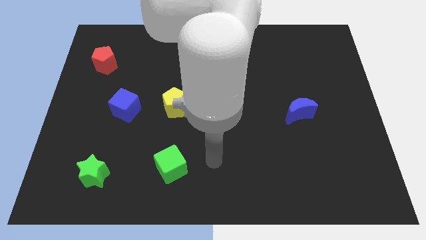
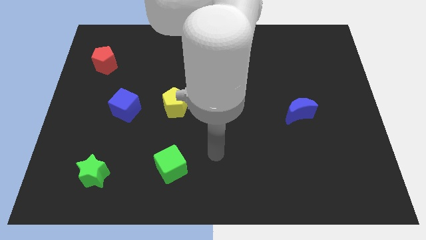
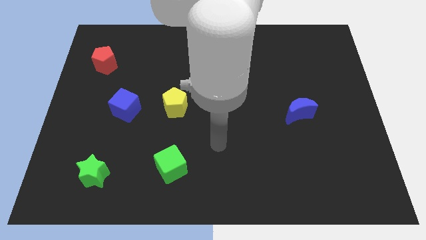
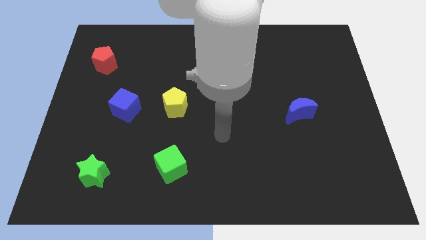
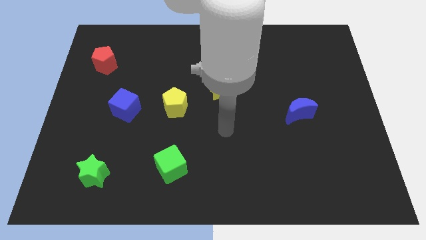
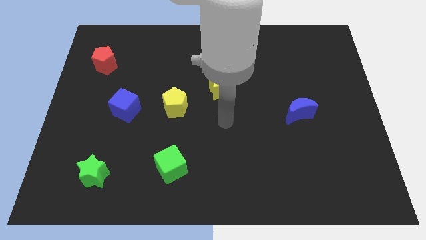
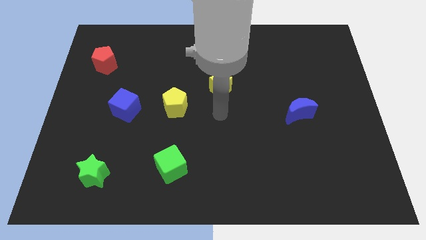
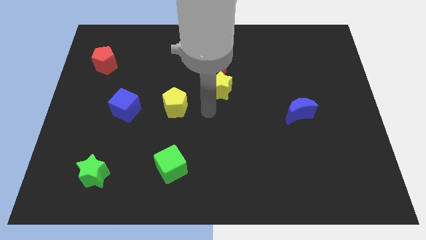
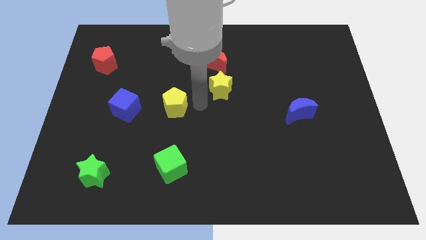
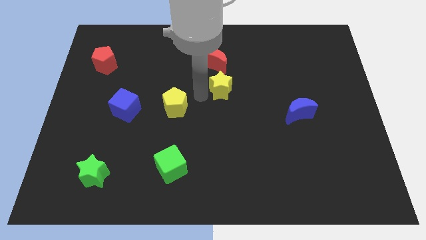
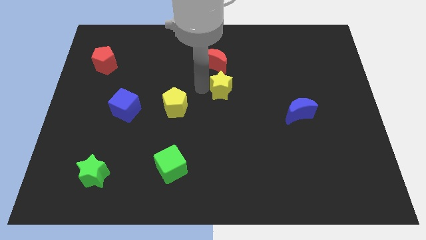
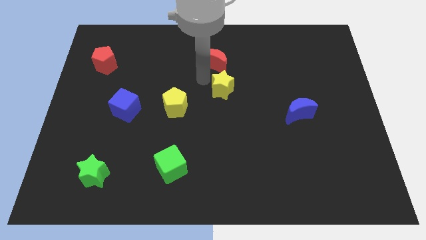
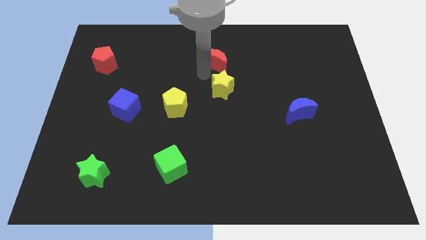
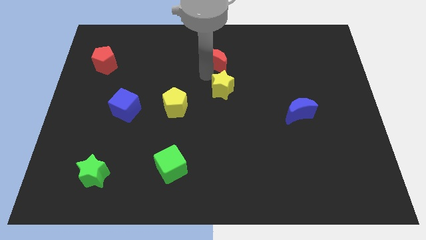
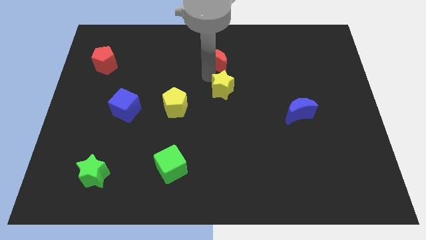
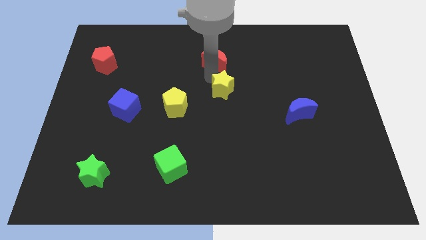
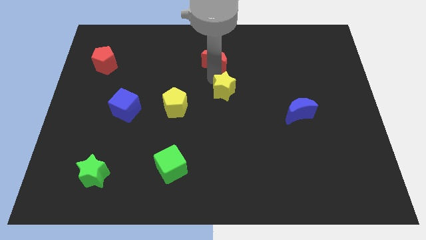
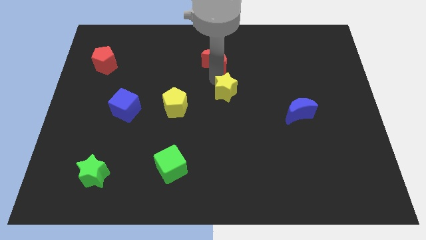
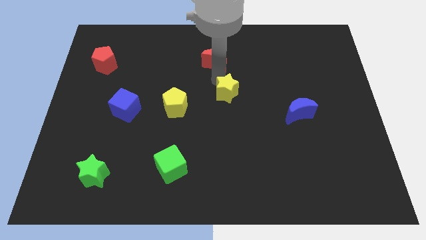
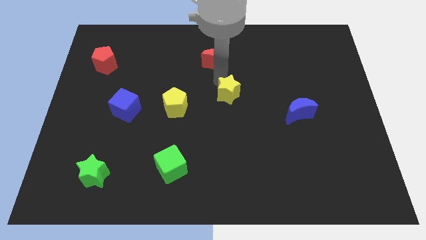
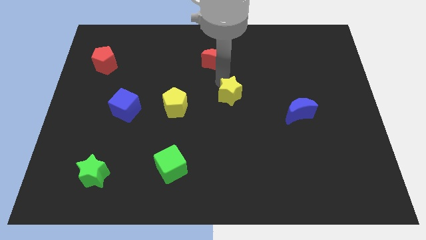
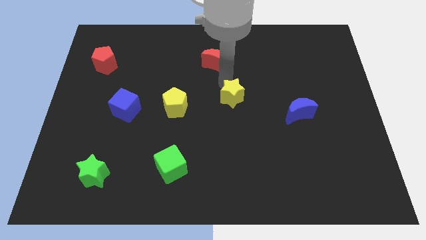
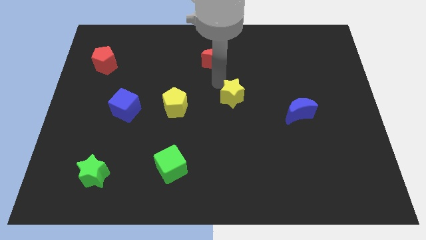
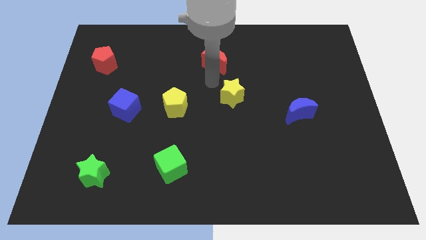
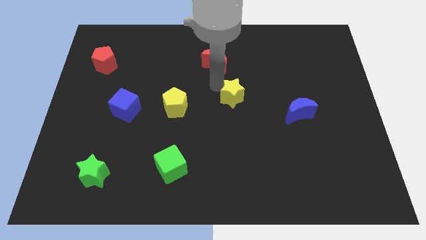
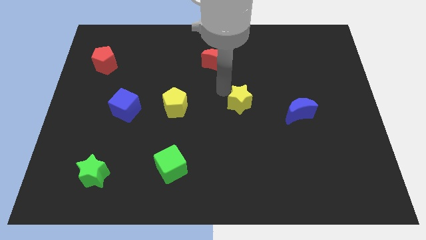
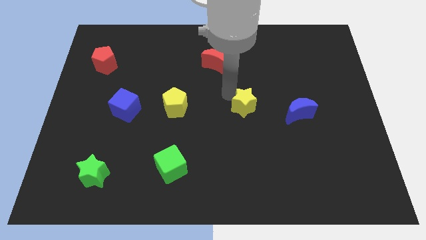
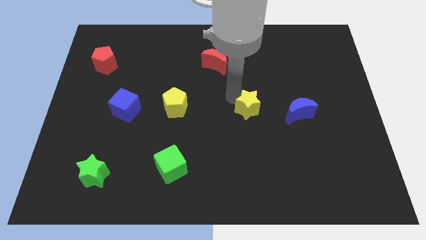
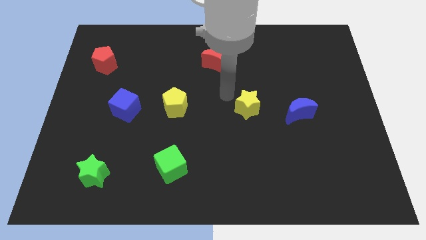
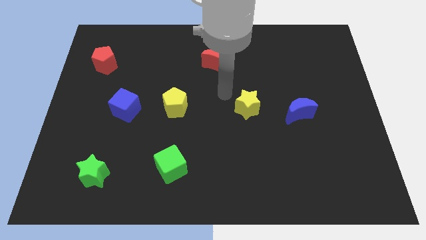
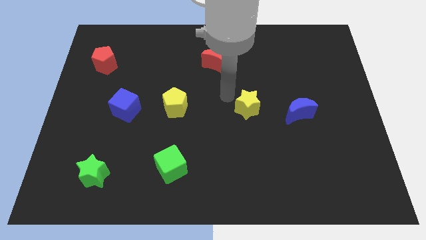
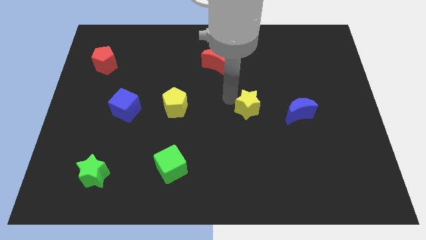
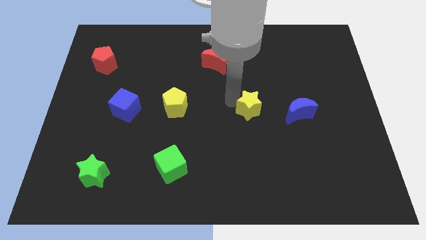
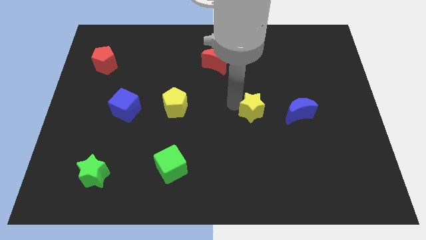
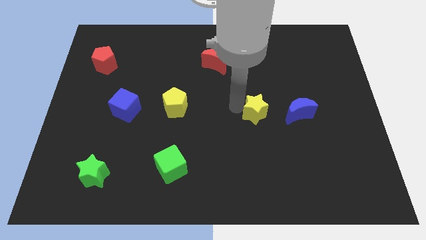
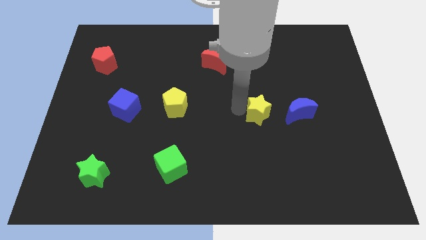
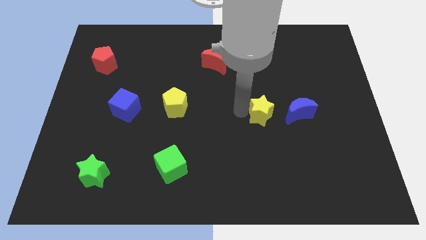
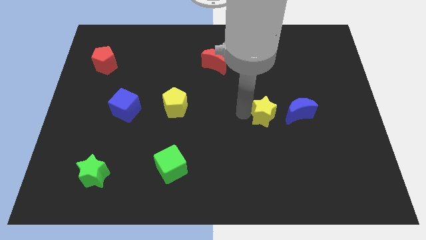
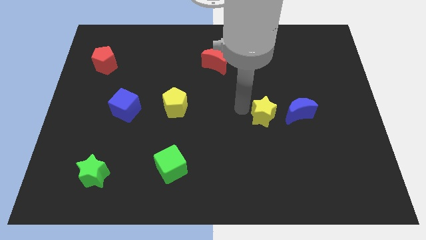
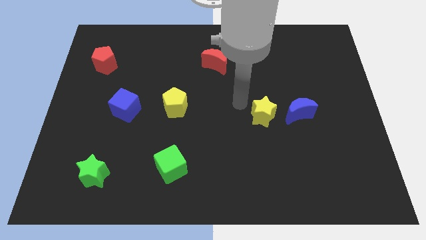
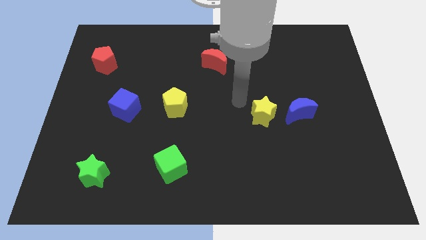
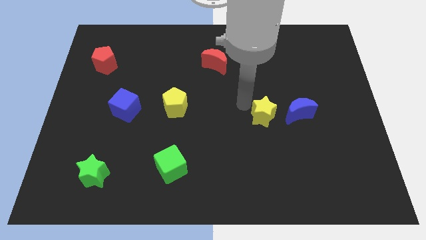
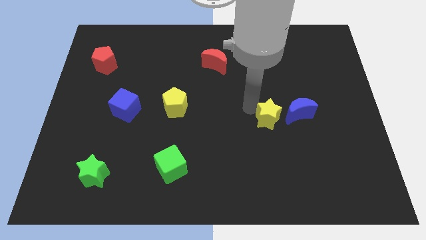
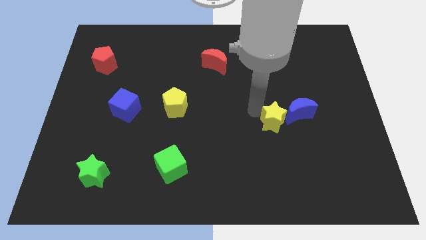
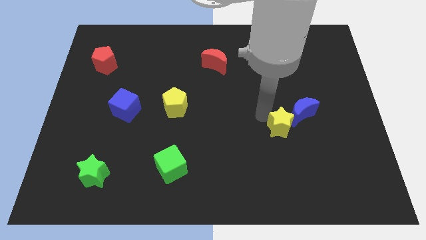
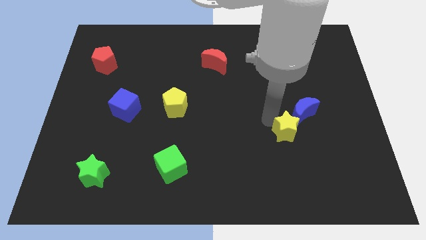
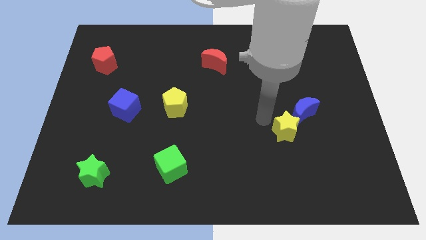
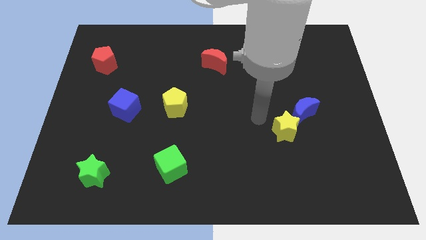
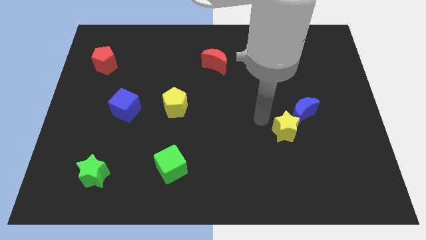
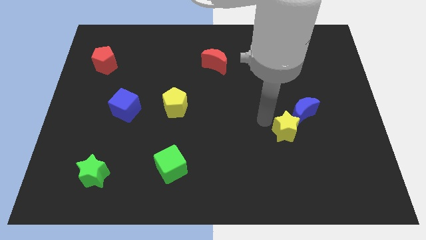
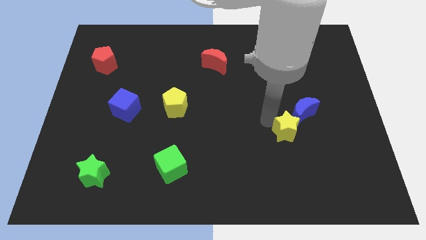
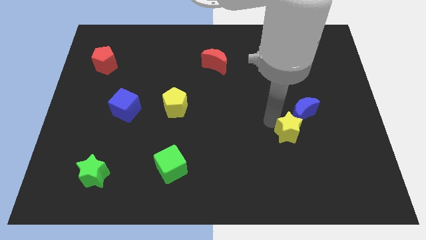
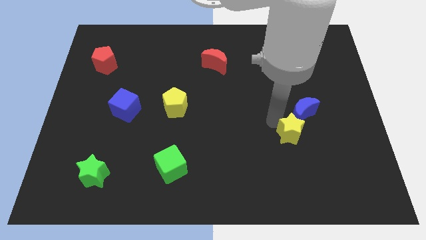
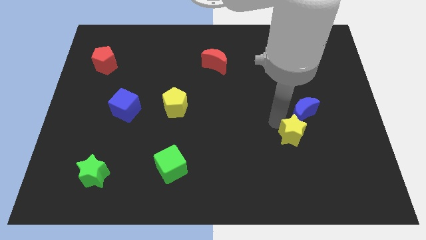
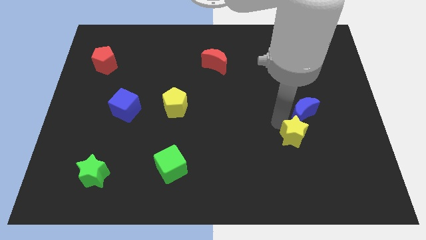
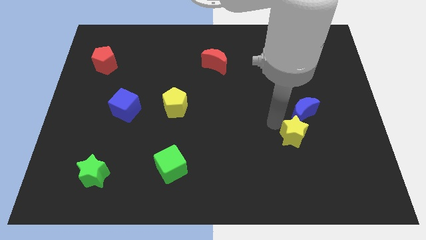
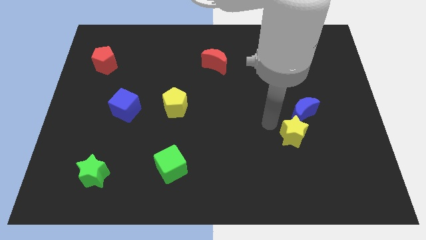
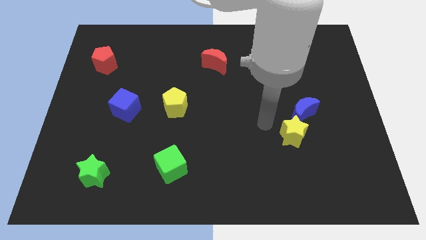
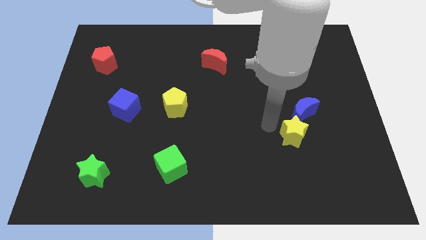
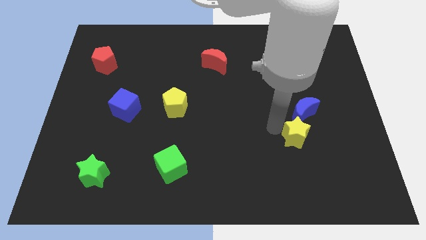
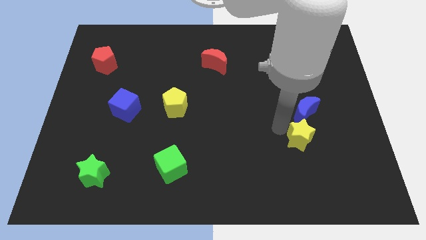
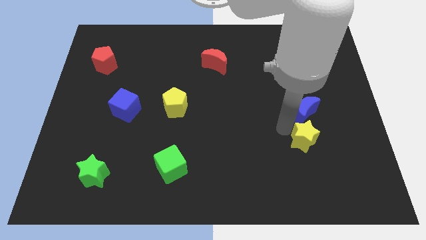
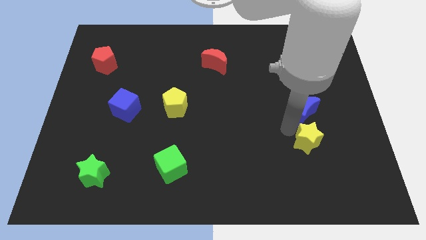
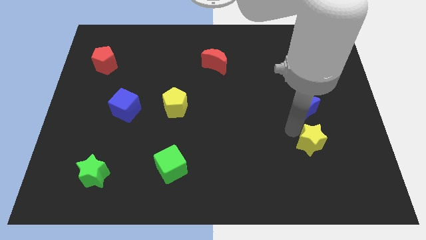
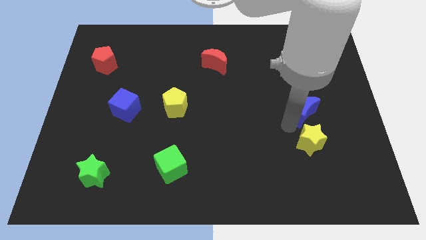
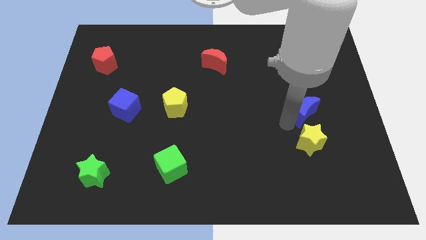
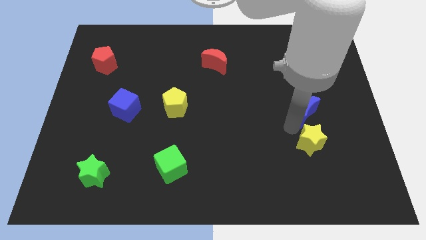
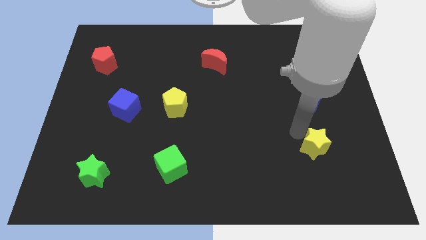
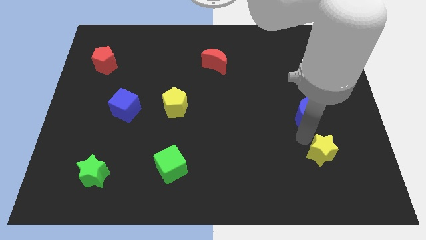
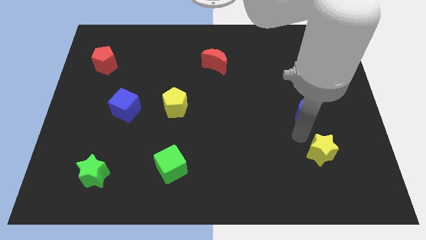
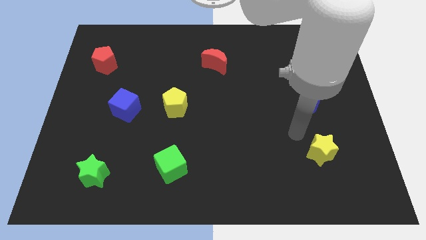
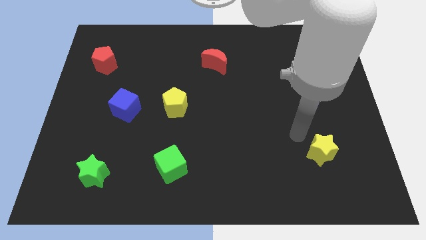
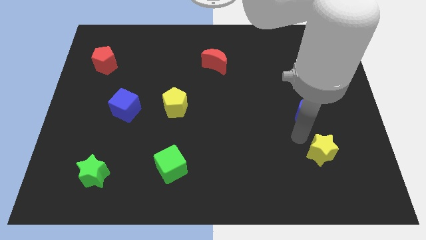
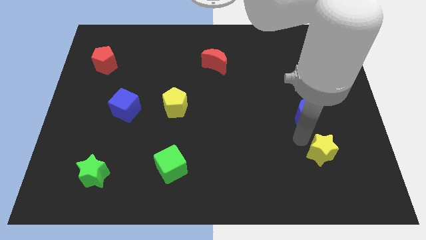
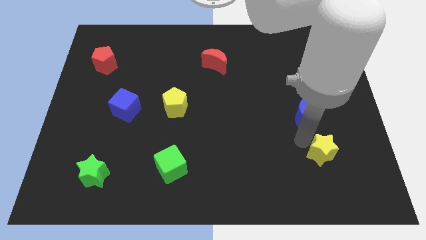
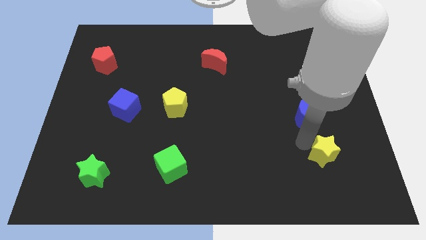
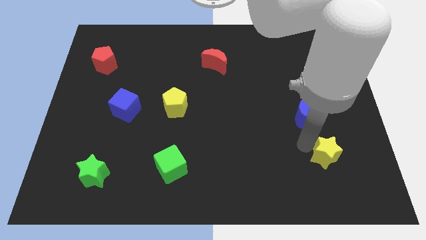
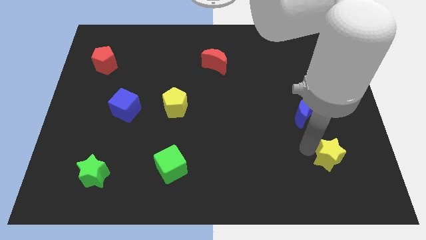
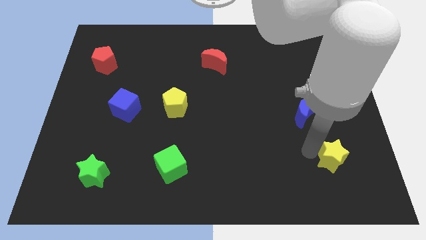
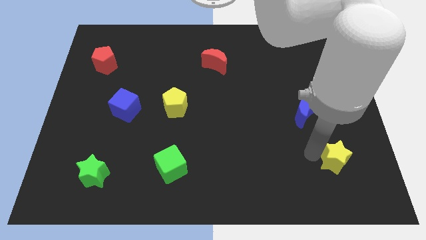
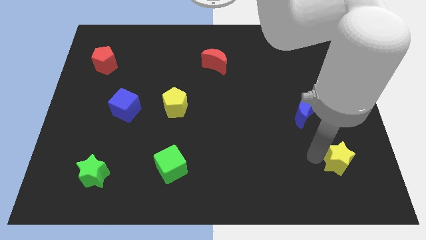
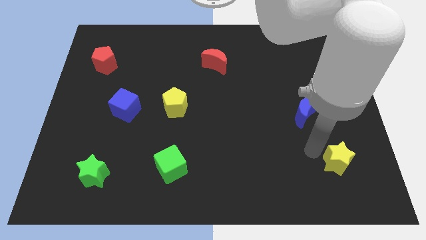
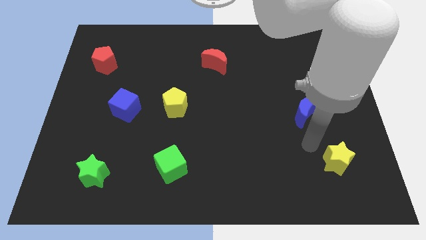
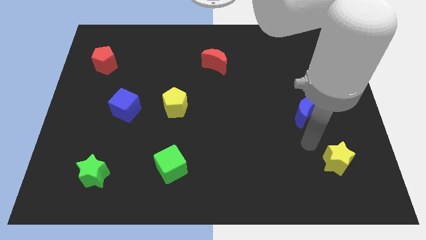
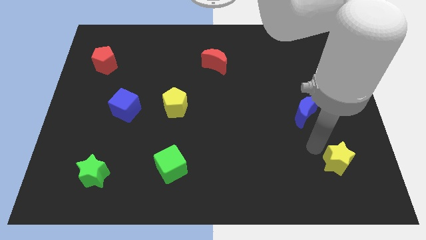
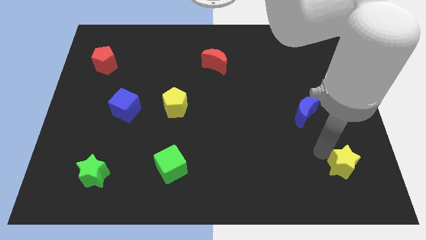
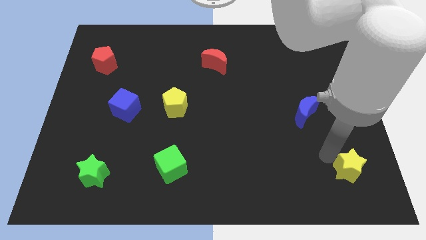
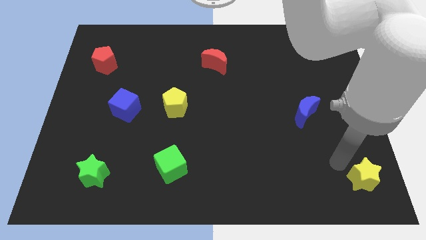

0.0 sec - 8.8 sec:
put the yellow star to the bottom right
